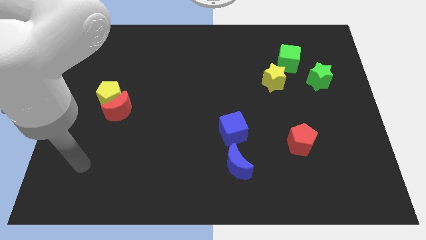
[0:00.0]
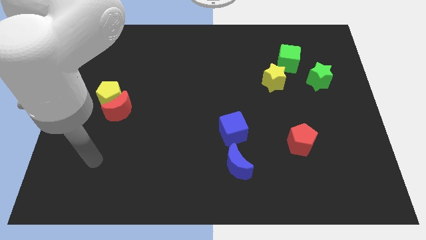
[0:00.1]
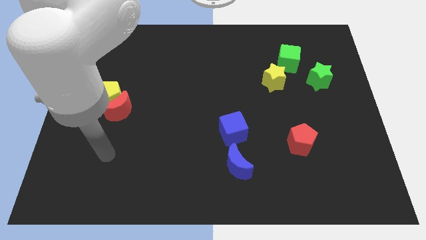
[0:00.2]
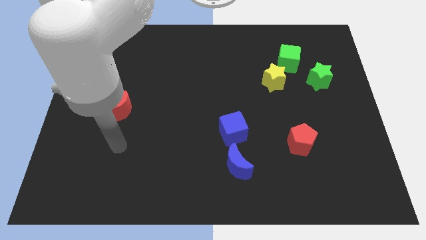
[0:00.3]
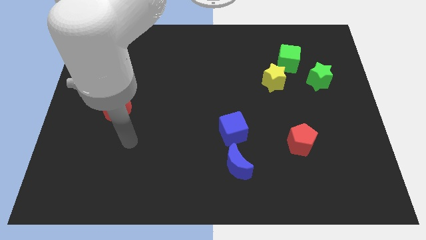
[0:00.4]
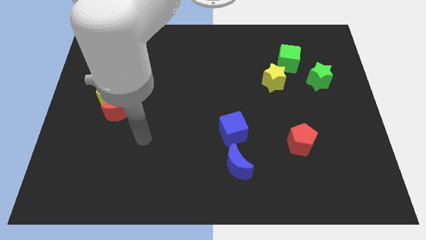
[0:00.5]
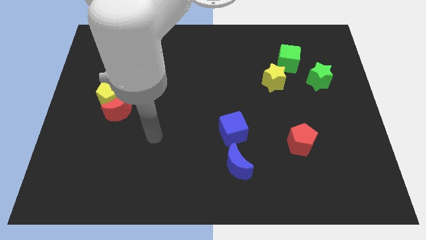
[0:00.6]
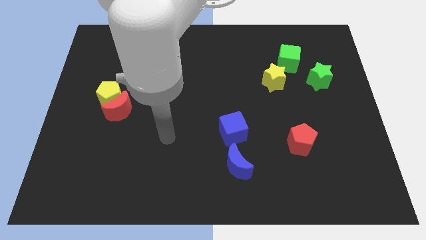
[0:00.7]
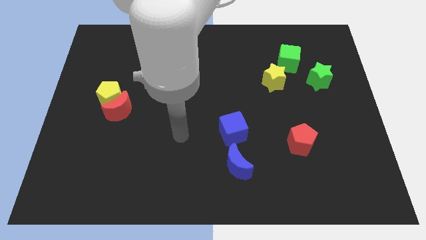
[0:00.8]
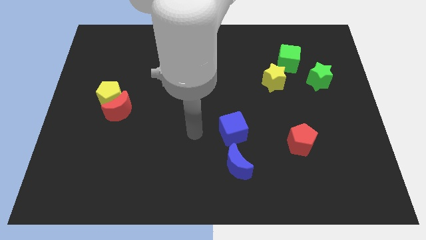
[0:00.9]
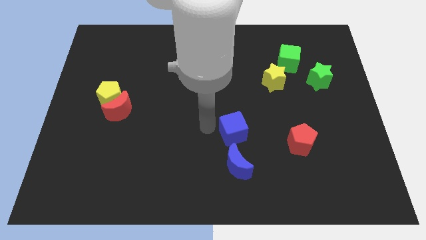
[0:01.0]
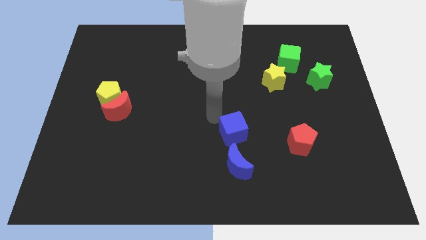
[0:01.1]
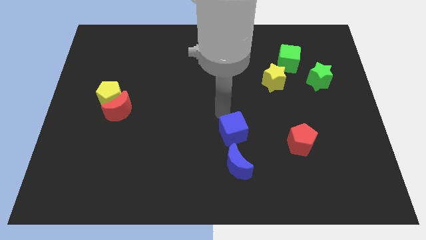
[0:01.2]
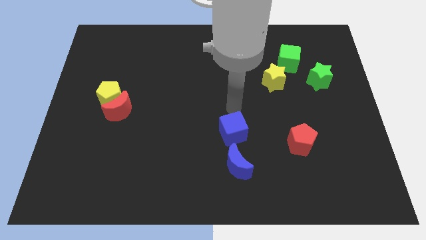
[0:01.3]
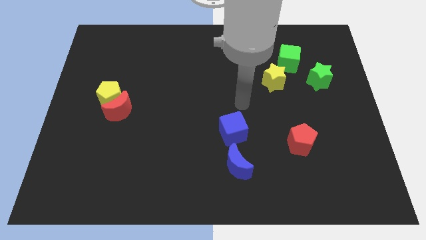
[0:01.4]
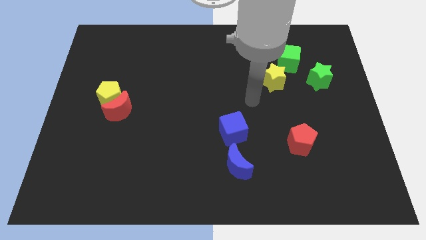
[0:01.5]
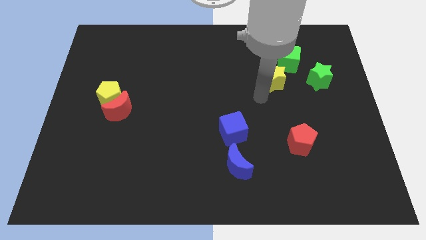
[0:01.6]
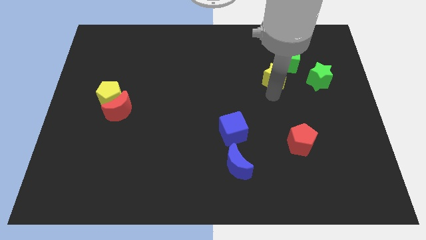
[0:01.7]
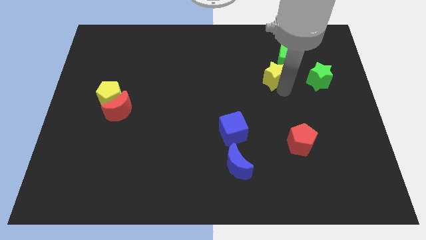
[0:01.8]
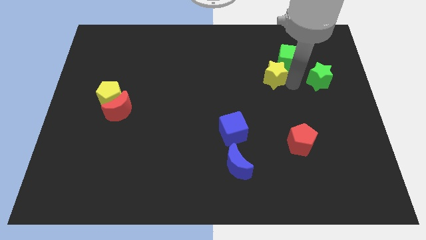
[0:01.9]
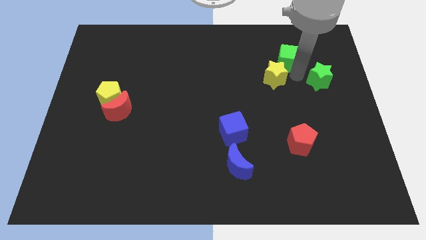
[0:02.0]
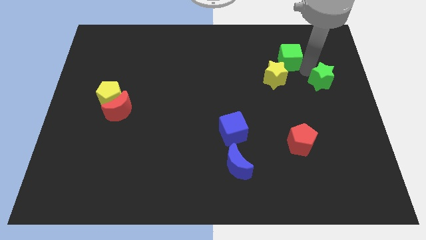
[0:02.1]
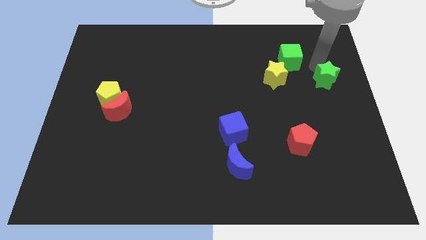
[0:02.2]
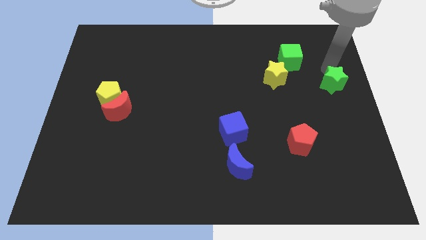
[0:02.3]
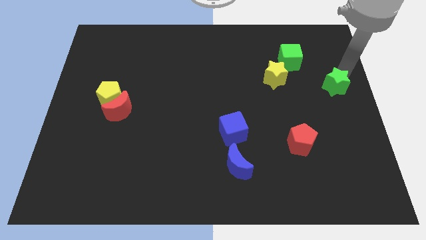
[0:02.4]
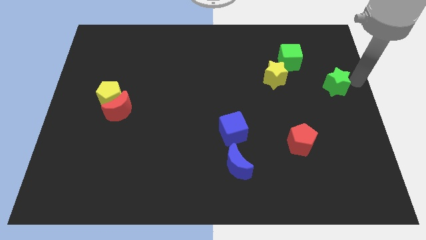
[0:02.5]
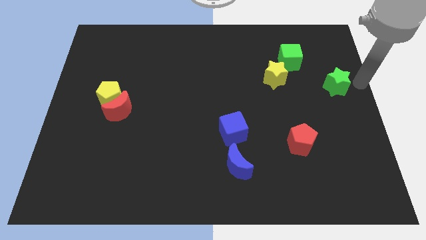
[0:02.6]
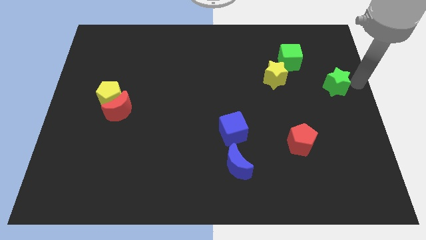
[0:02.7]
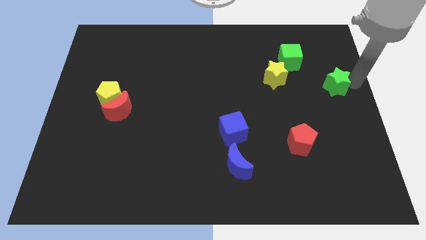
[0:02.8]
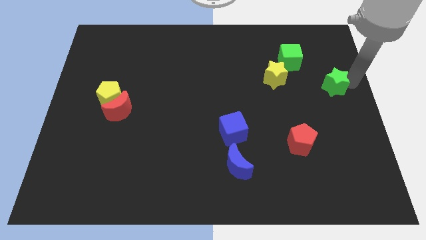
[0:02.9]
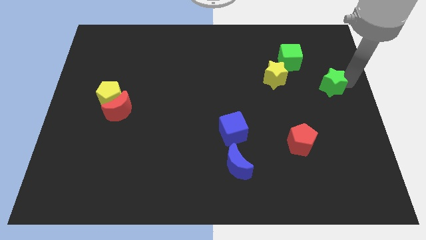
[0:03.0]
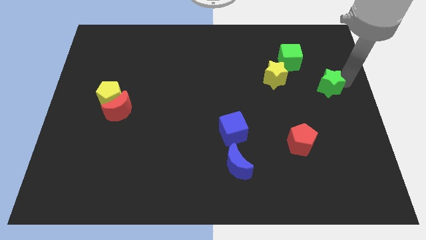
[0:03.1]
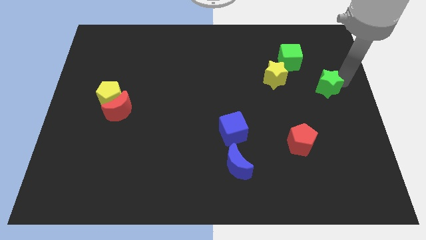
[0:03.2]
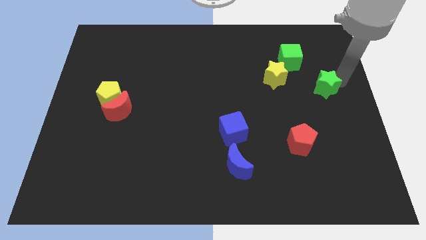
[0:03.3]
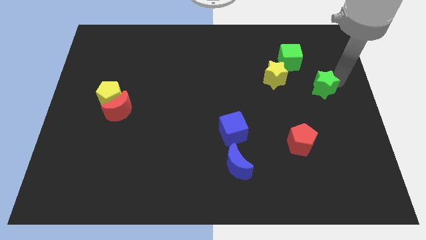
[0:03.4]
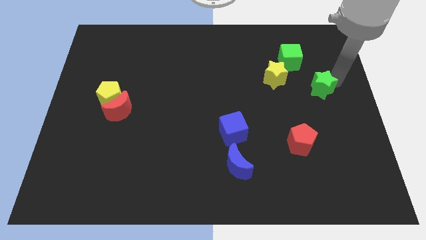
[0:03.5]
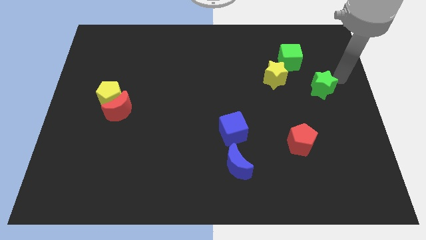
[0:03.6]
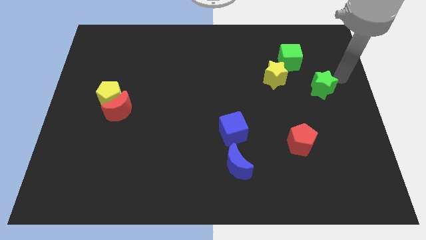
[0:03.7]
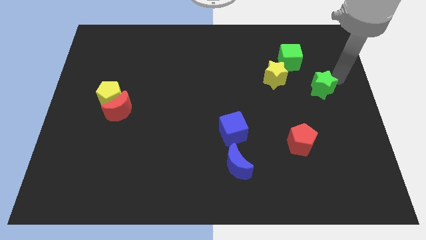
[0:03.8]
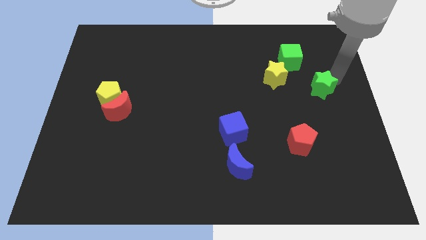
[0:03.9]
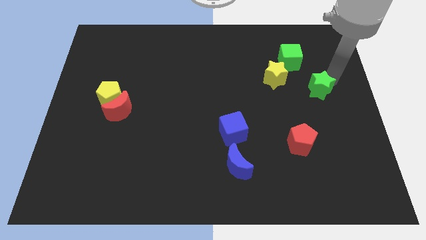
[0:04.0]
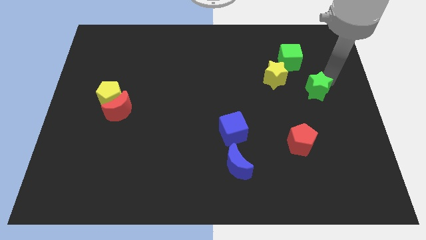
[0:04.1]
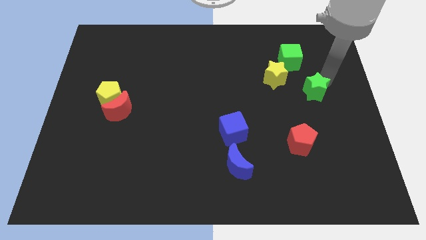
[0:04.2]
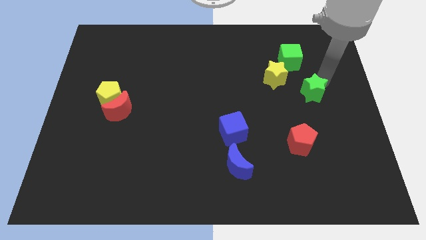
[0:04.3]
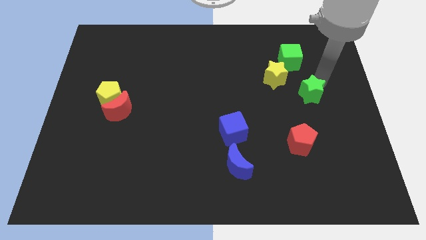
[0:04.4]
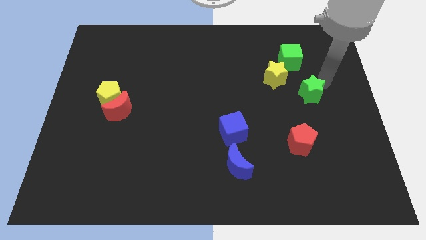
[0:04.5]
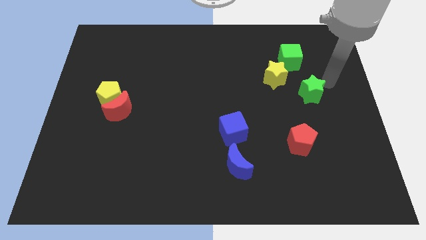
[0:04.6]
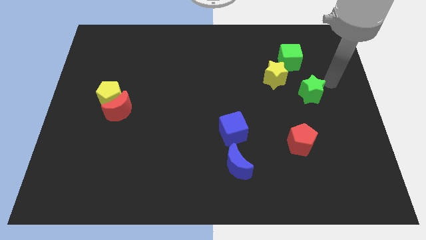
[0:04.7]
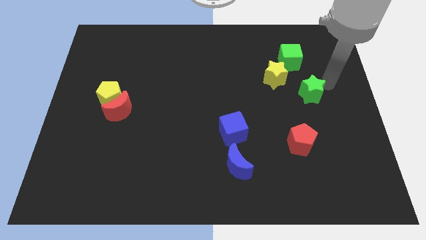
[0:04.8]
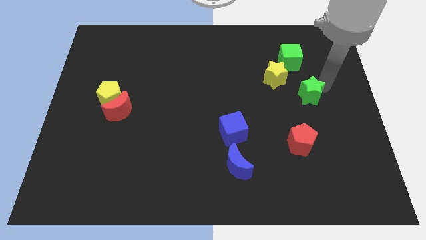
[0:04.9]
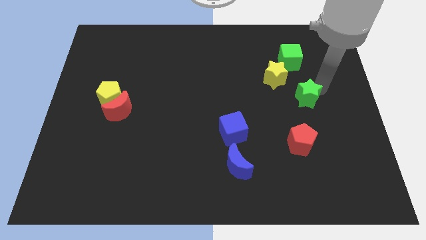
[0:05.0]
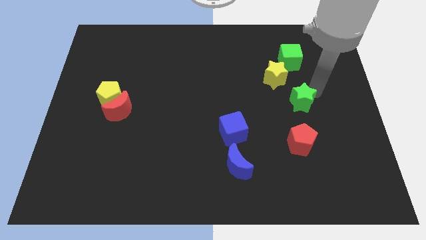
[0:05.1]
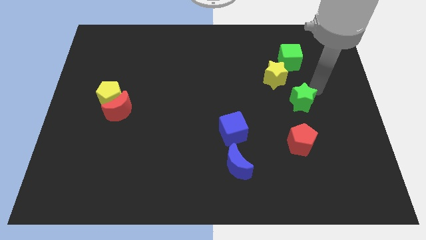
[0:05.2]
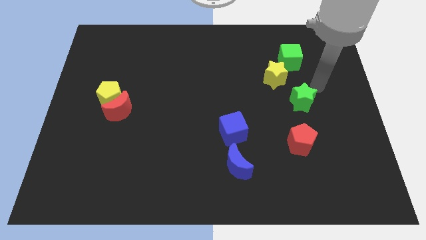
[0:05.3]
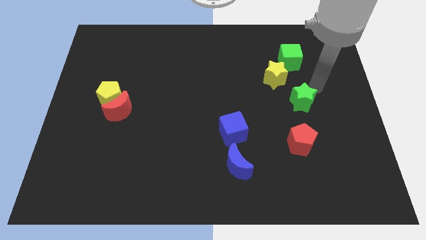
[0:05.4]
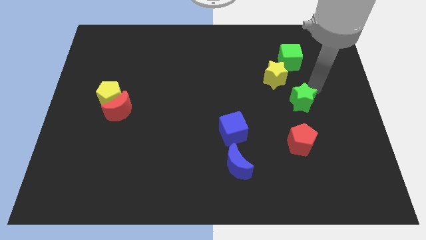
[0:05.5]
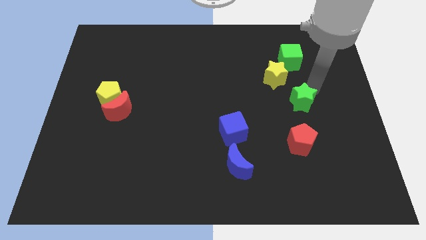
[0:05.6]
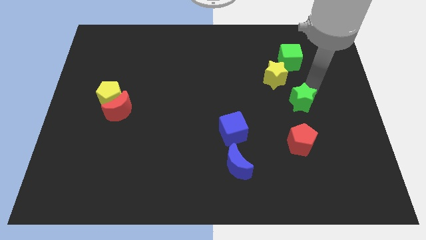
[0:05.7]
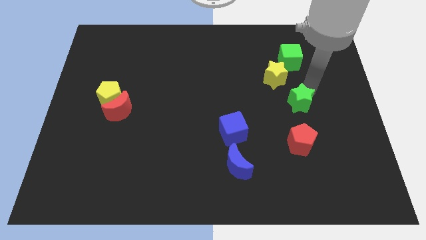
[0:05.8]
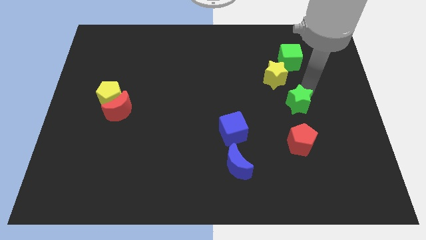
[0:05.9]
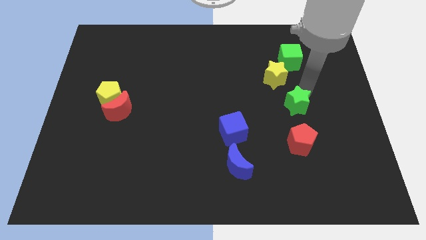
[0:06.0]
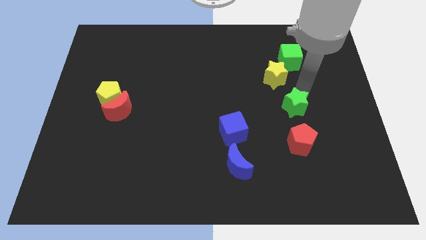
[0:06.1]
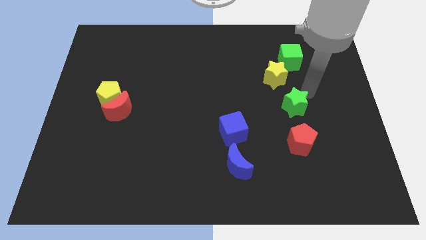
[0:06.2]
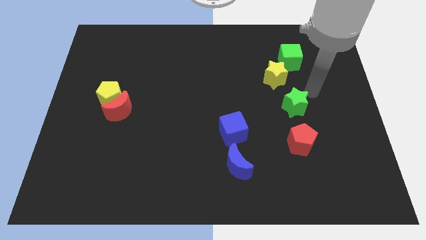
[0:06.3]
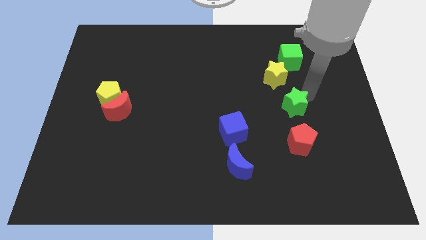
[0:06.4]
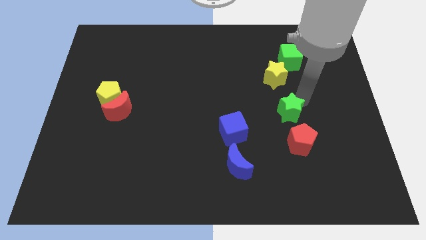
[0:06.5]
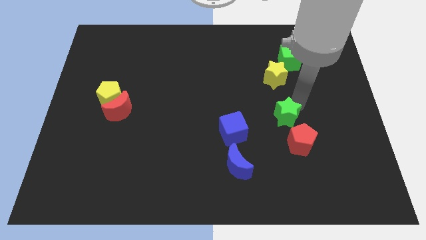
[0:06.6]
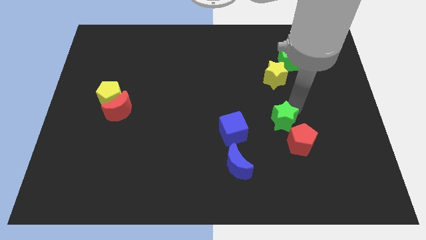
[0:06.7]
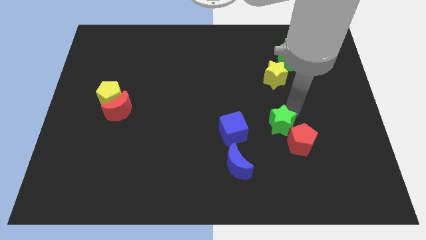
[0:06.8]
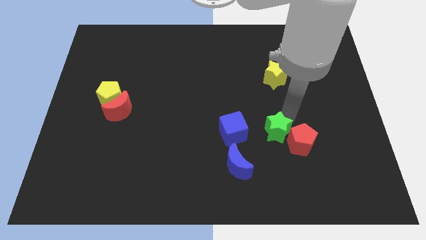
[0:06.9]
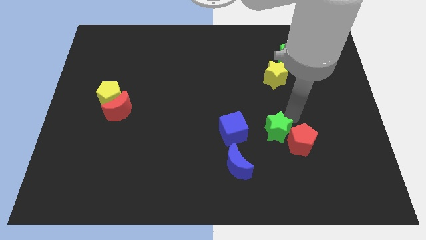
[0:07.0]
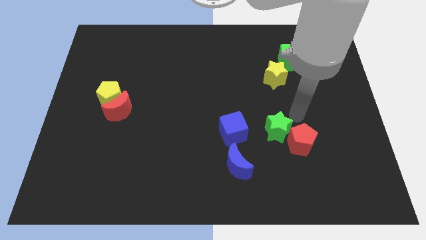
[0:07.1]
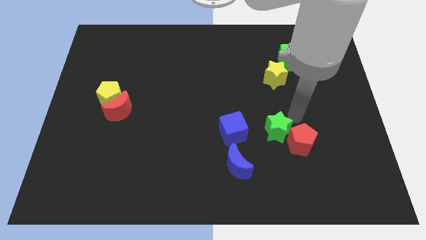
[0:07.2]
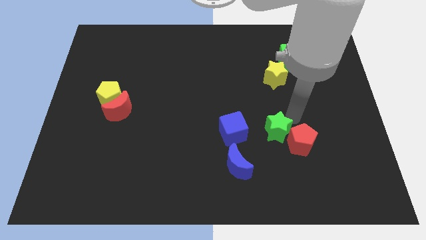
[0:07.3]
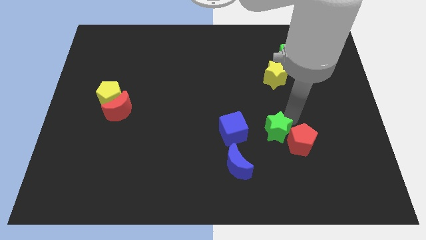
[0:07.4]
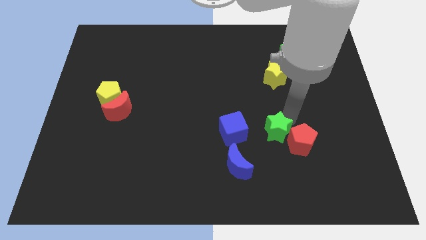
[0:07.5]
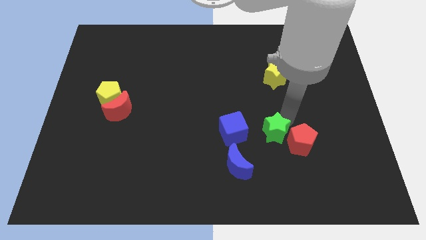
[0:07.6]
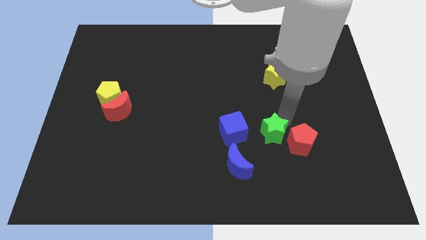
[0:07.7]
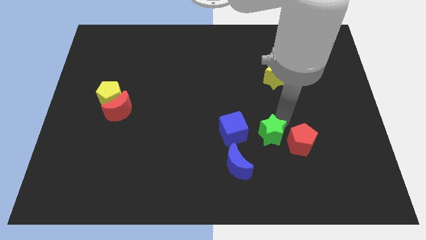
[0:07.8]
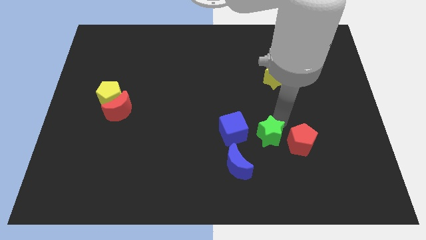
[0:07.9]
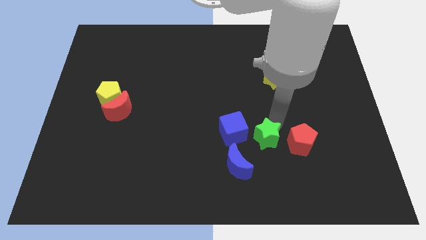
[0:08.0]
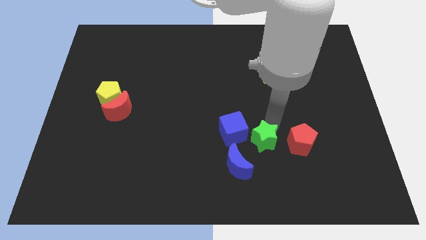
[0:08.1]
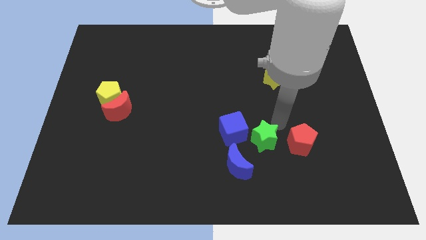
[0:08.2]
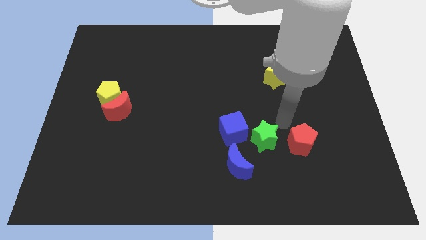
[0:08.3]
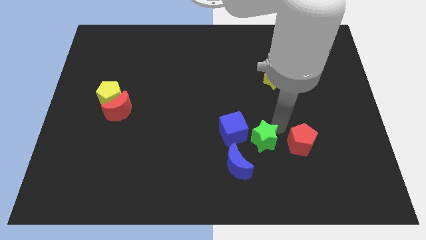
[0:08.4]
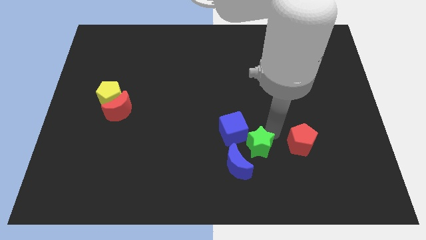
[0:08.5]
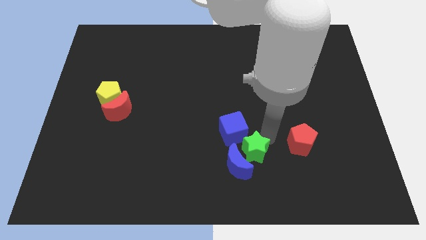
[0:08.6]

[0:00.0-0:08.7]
put the green star to the blue moon
